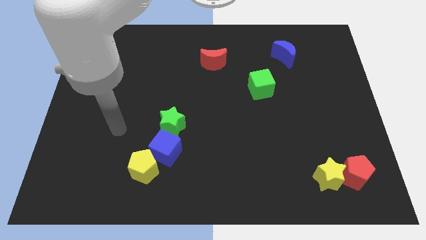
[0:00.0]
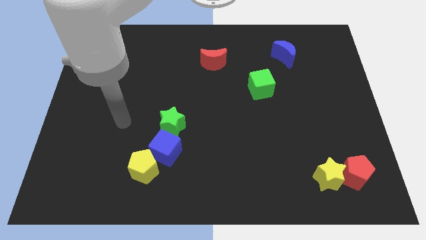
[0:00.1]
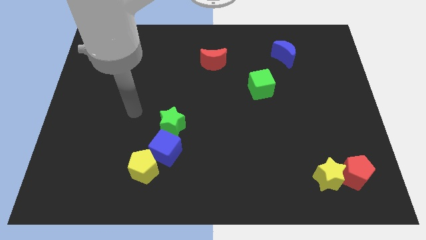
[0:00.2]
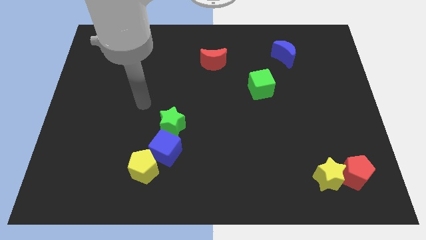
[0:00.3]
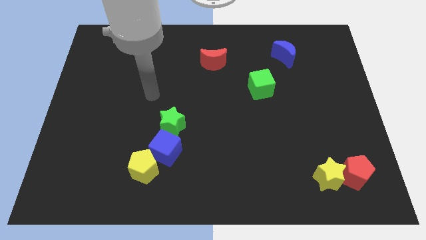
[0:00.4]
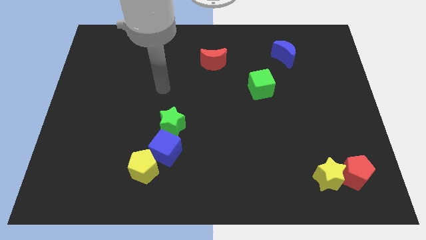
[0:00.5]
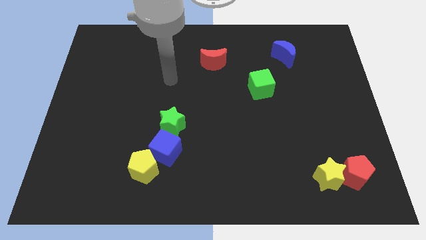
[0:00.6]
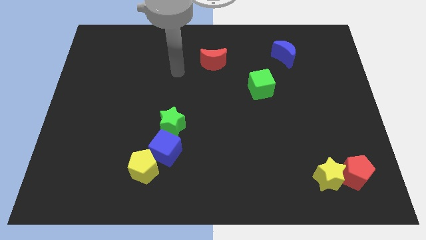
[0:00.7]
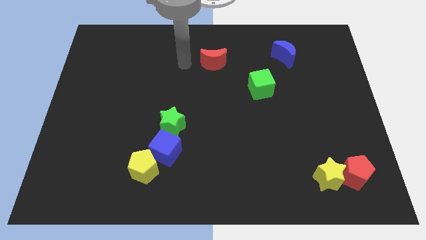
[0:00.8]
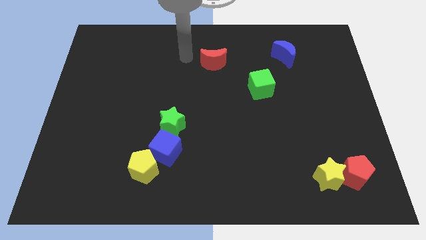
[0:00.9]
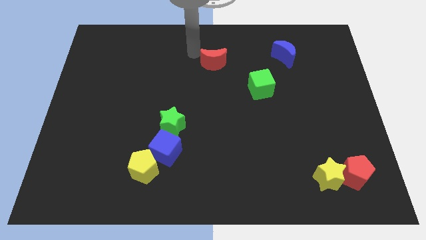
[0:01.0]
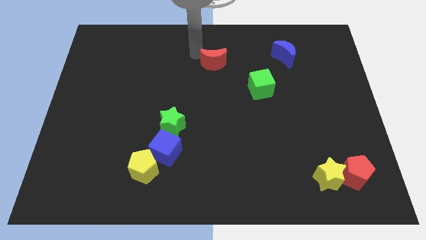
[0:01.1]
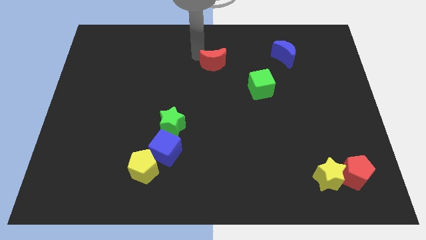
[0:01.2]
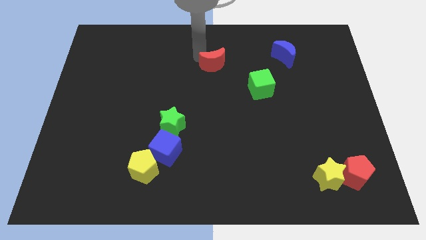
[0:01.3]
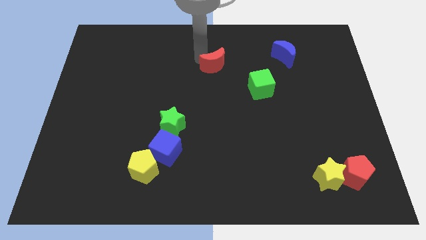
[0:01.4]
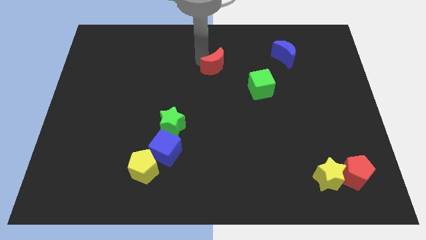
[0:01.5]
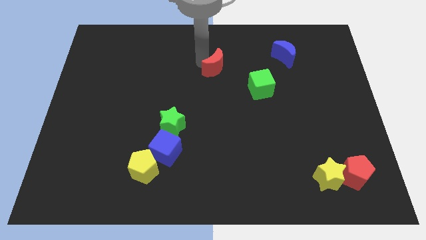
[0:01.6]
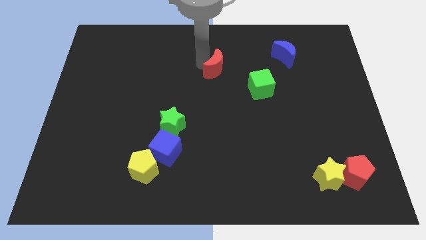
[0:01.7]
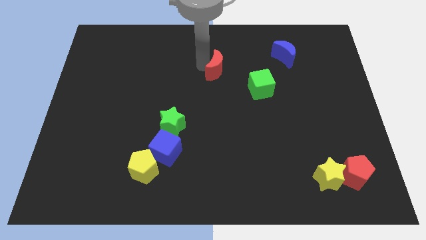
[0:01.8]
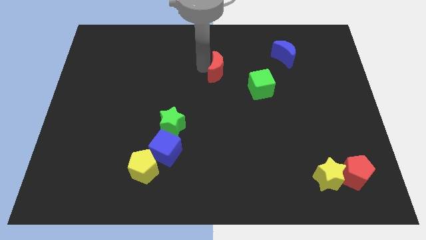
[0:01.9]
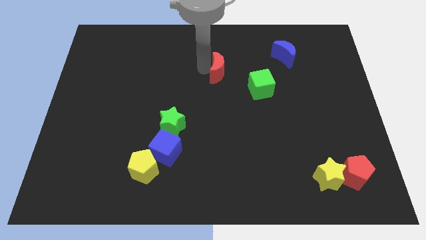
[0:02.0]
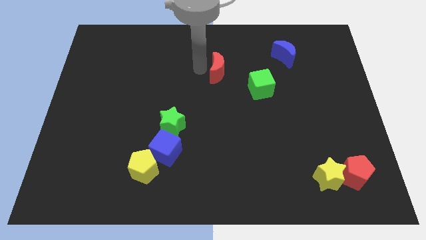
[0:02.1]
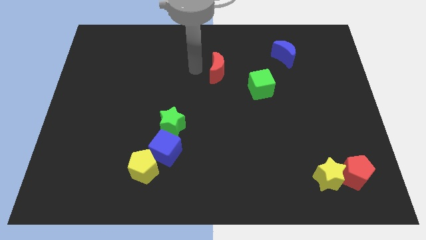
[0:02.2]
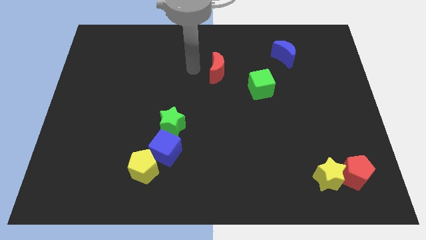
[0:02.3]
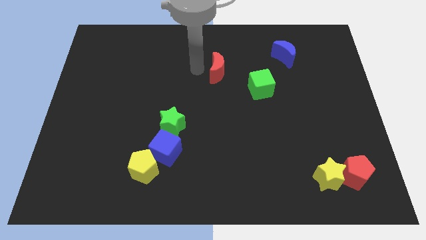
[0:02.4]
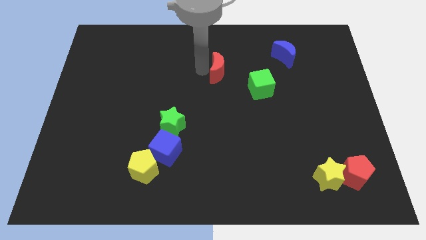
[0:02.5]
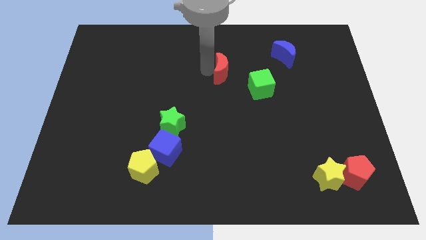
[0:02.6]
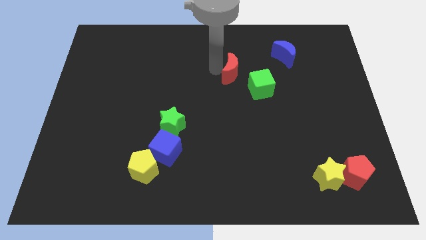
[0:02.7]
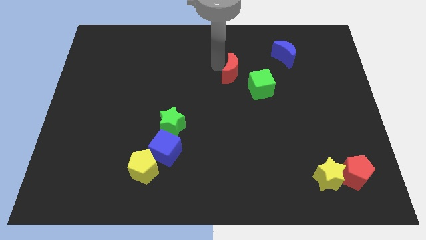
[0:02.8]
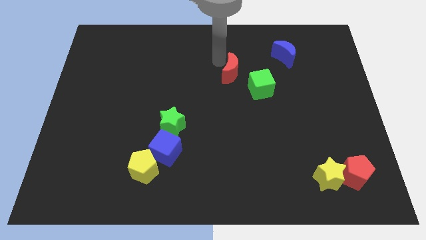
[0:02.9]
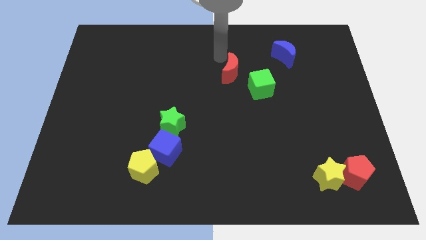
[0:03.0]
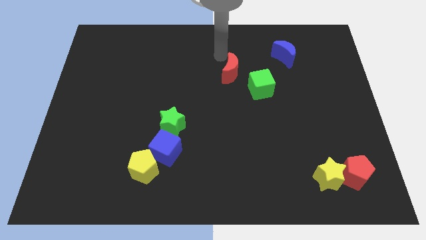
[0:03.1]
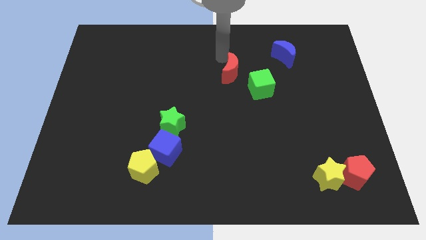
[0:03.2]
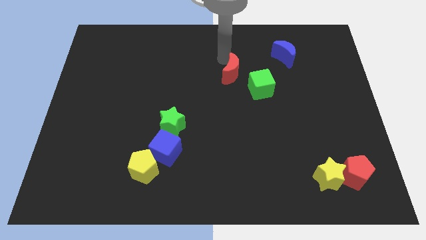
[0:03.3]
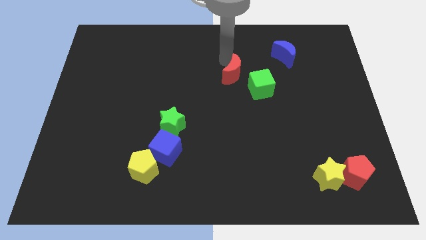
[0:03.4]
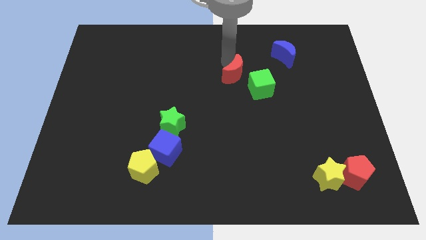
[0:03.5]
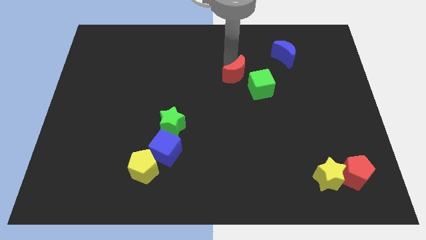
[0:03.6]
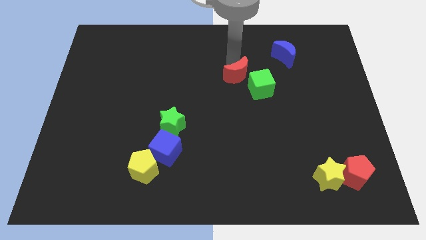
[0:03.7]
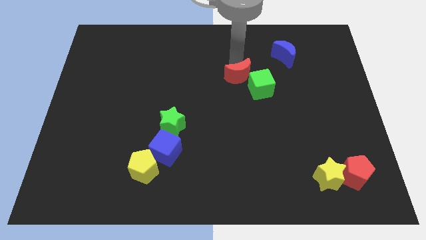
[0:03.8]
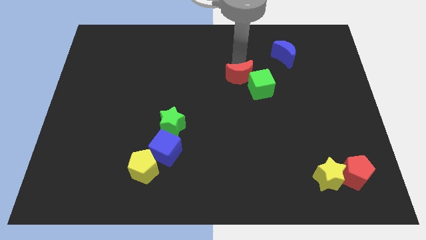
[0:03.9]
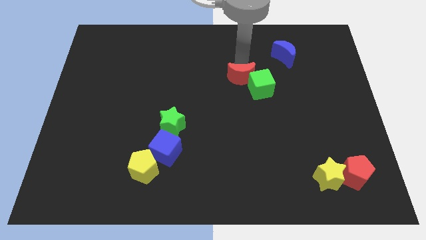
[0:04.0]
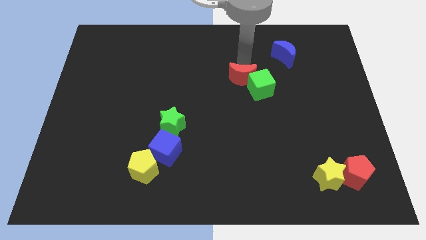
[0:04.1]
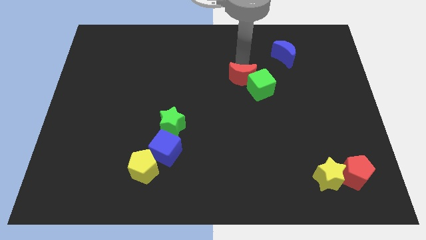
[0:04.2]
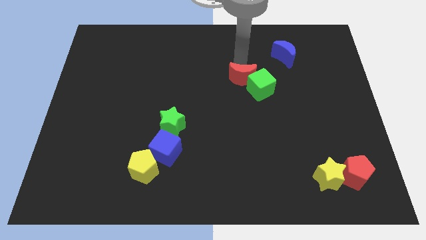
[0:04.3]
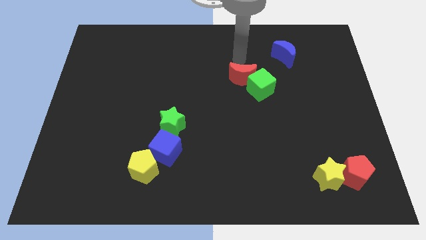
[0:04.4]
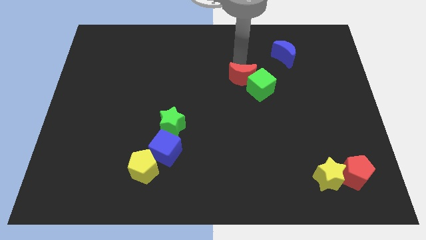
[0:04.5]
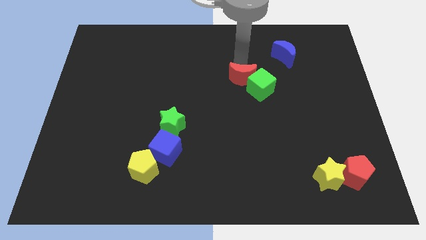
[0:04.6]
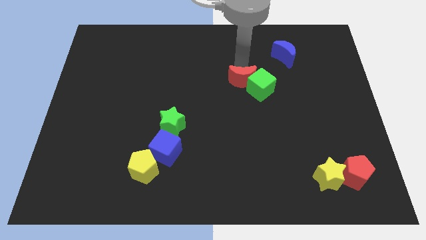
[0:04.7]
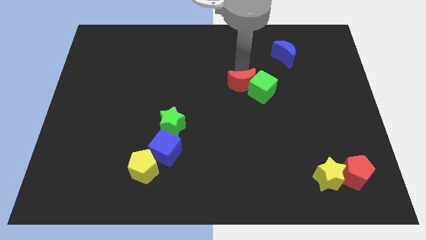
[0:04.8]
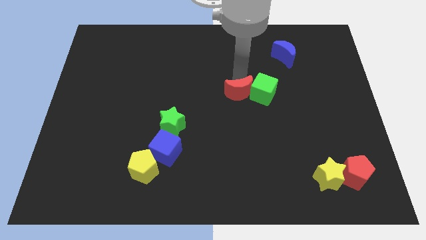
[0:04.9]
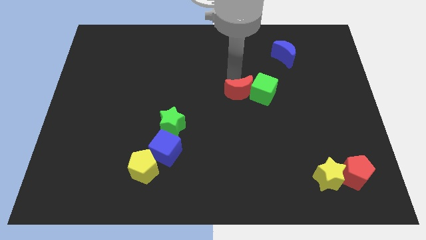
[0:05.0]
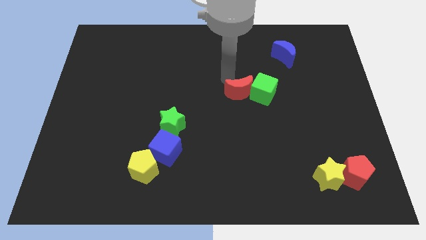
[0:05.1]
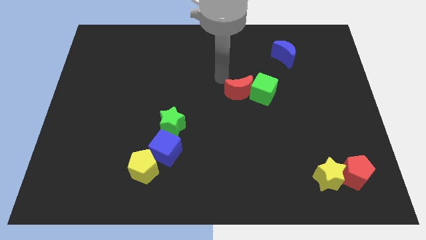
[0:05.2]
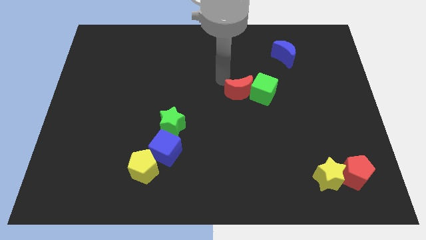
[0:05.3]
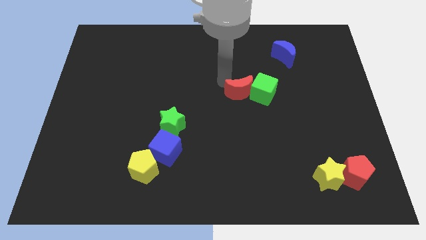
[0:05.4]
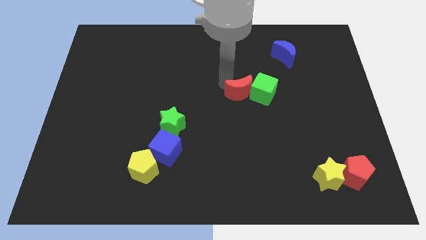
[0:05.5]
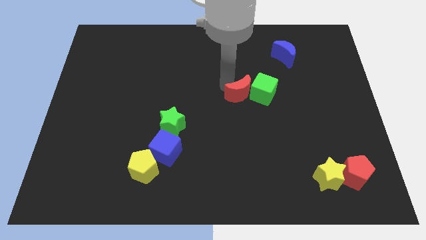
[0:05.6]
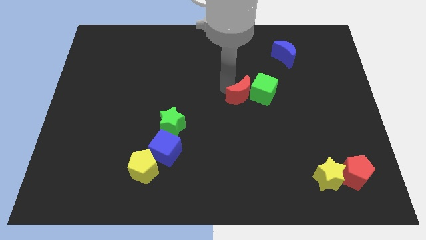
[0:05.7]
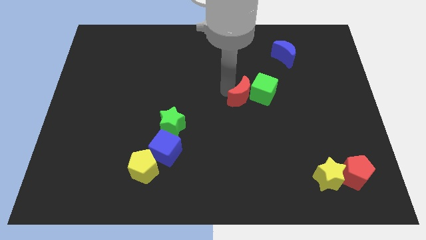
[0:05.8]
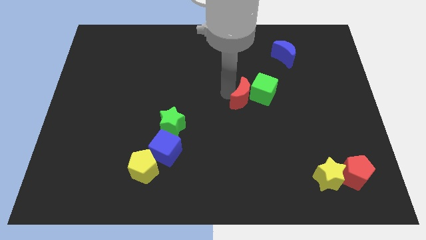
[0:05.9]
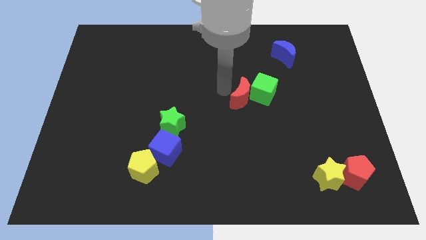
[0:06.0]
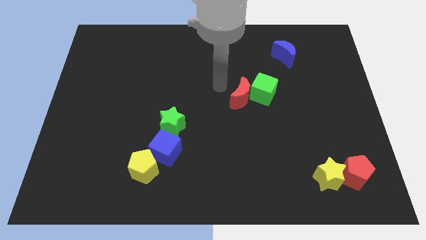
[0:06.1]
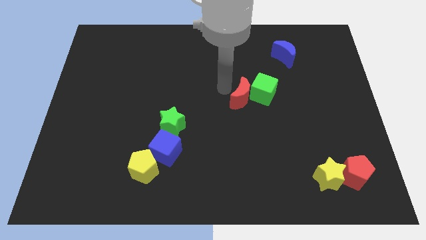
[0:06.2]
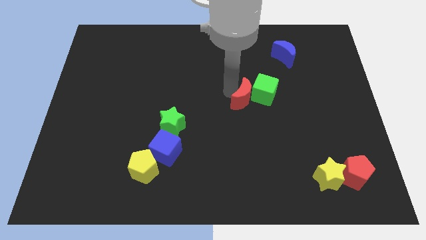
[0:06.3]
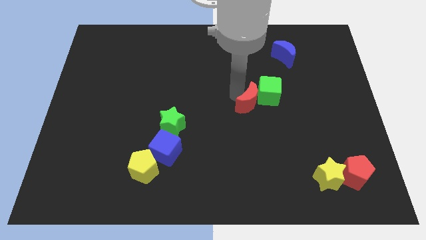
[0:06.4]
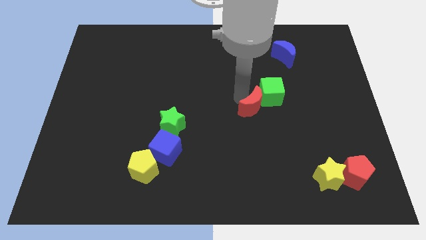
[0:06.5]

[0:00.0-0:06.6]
move the red moon to the bottom side of the green cube

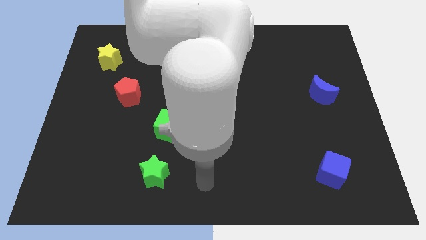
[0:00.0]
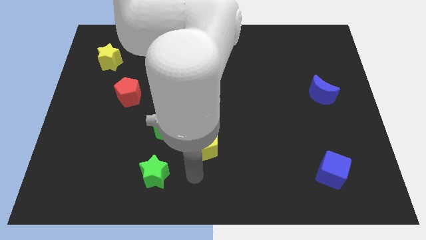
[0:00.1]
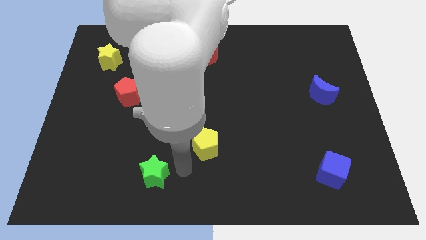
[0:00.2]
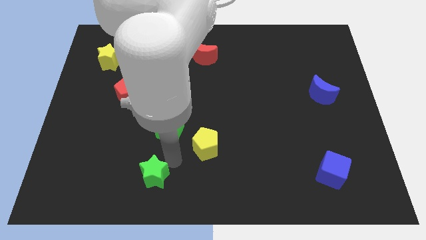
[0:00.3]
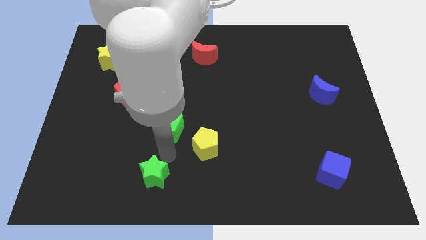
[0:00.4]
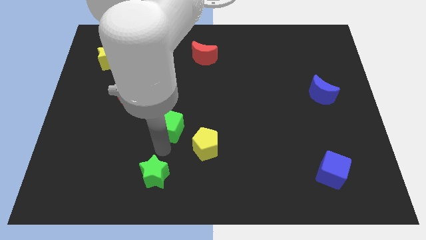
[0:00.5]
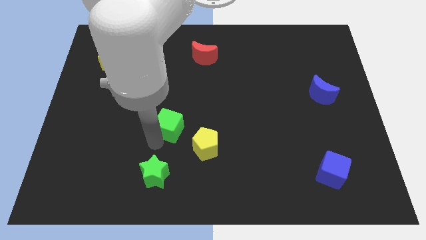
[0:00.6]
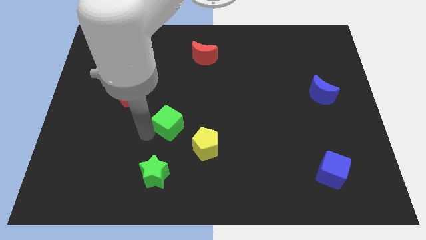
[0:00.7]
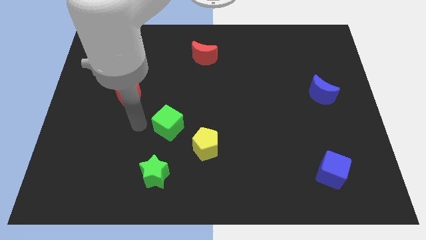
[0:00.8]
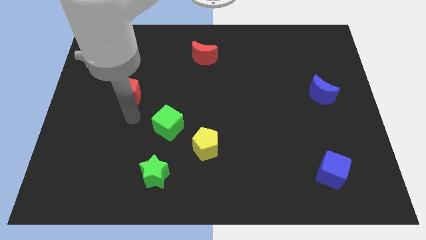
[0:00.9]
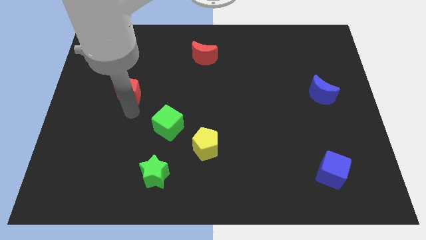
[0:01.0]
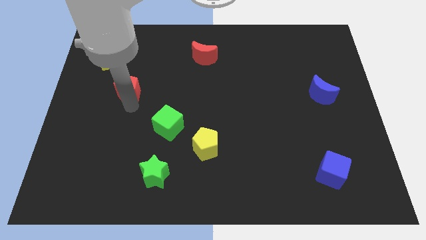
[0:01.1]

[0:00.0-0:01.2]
slide the red pentagon diagonally down and to the right of the yellow star

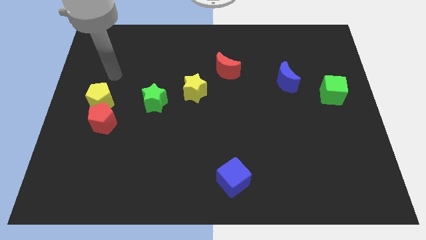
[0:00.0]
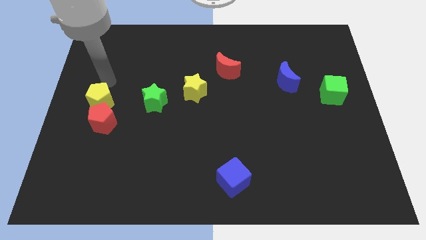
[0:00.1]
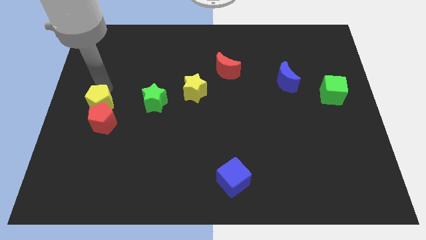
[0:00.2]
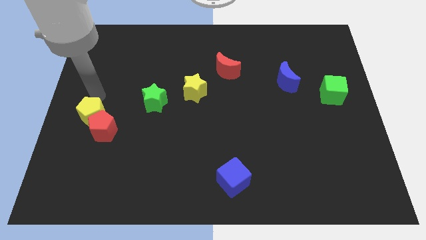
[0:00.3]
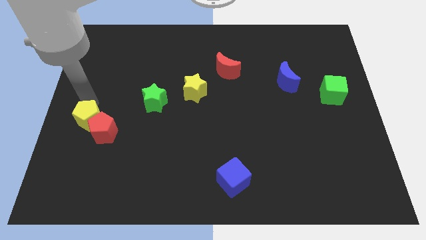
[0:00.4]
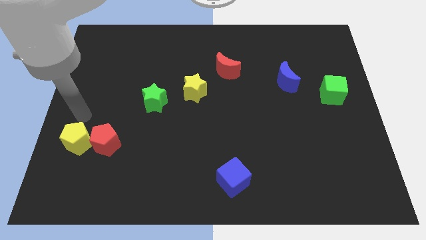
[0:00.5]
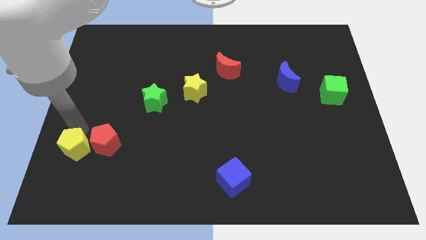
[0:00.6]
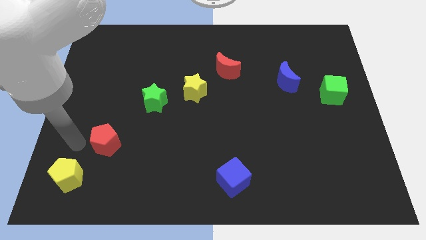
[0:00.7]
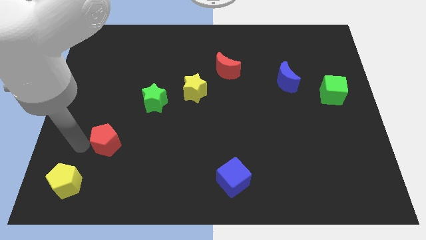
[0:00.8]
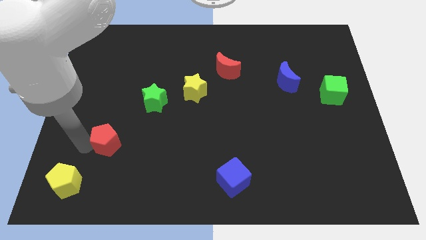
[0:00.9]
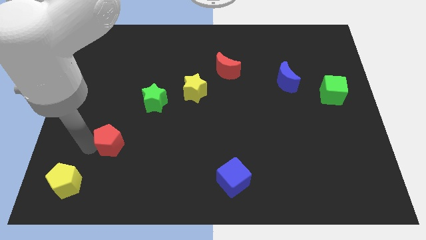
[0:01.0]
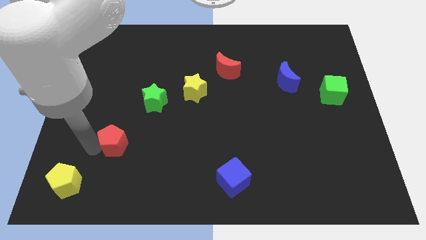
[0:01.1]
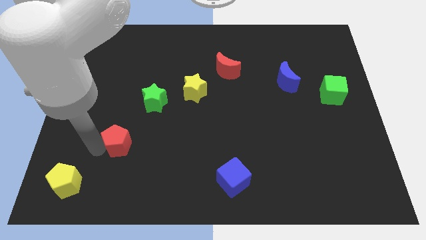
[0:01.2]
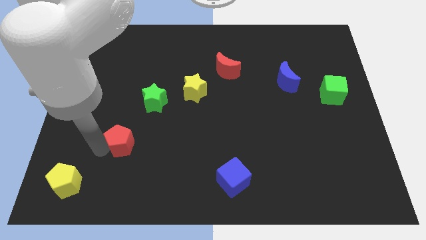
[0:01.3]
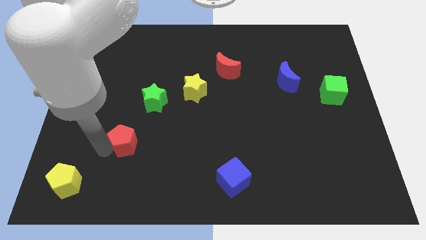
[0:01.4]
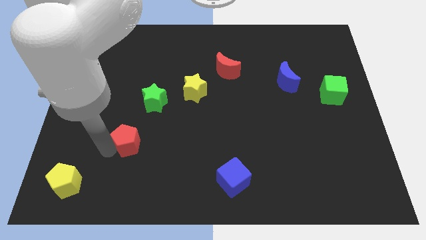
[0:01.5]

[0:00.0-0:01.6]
put the red pentagon below the green star
